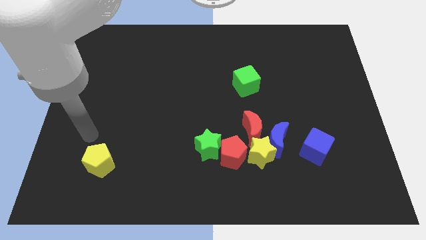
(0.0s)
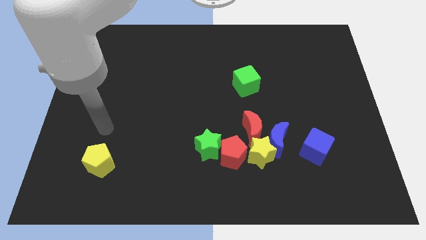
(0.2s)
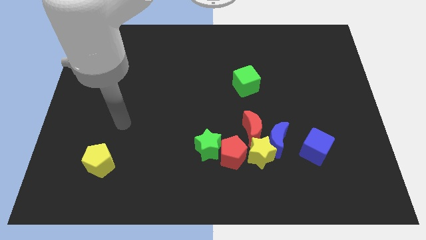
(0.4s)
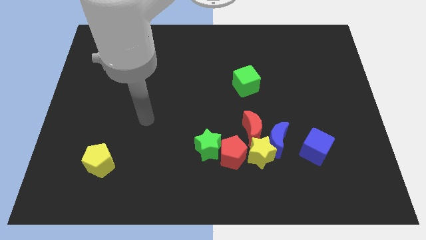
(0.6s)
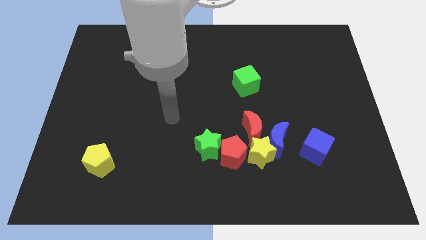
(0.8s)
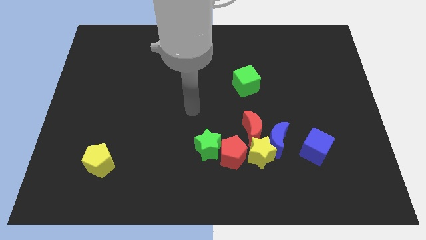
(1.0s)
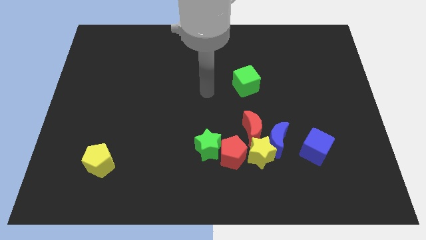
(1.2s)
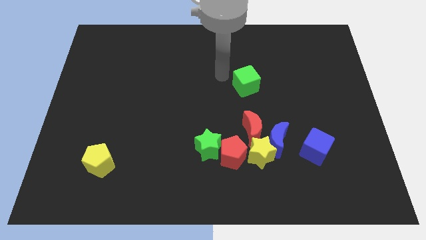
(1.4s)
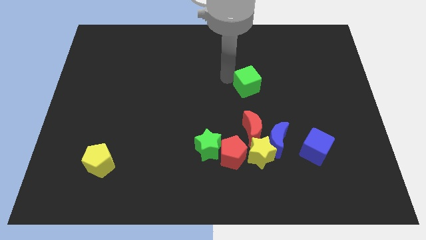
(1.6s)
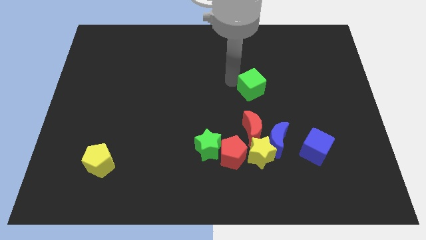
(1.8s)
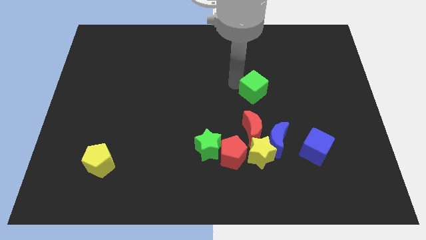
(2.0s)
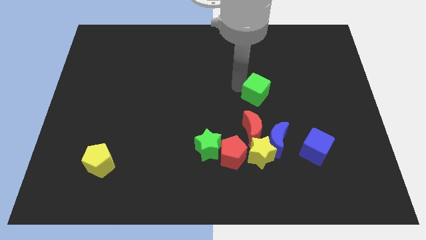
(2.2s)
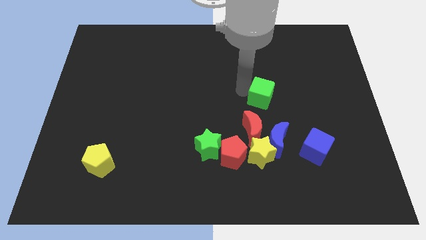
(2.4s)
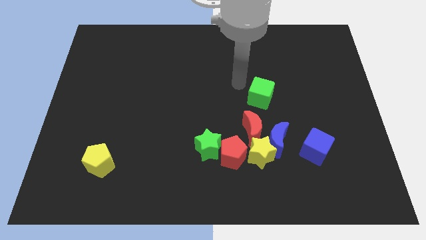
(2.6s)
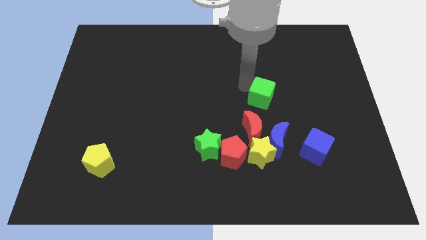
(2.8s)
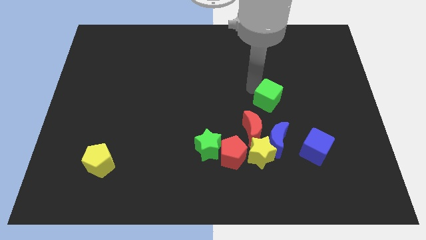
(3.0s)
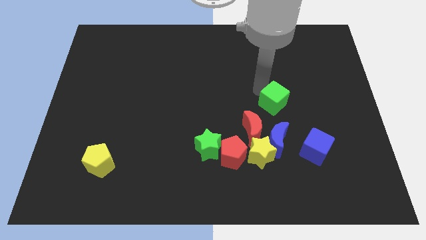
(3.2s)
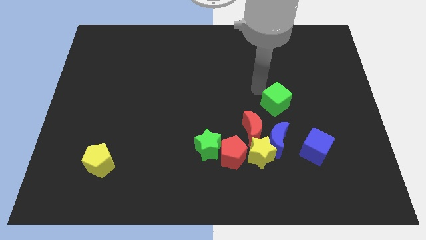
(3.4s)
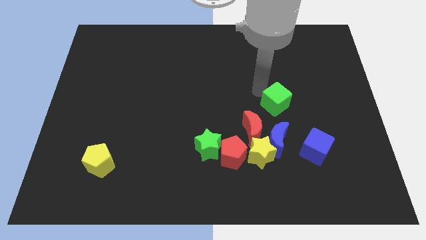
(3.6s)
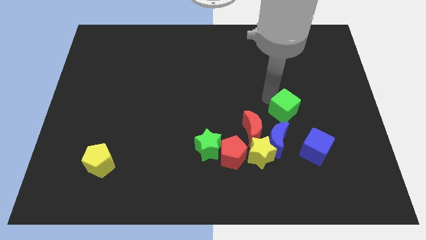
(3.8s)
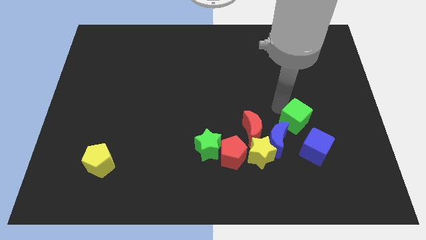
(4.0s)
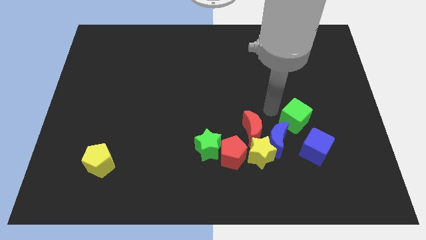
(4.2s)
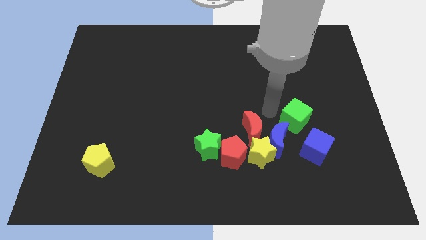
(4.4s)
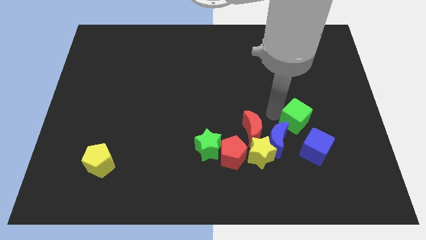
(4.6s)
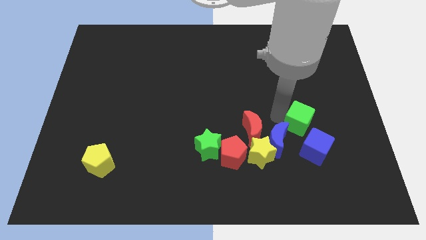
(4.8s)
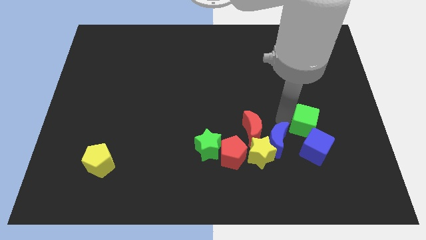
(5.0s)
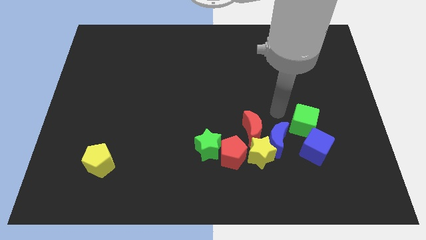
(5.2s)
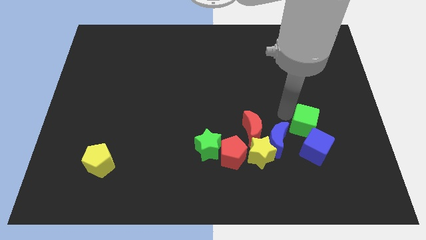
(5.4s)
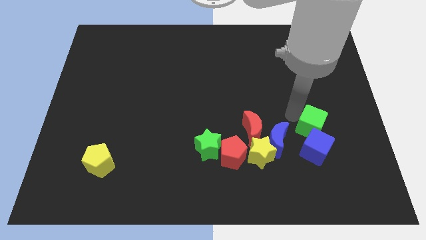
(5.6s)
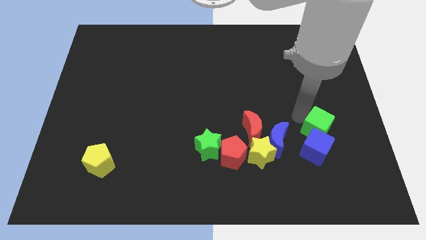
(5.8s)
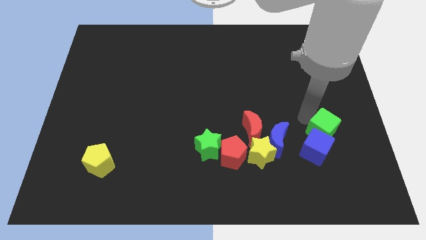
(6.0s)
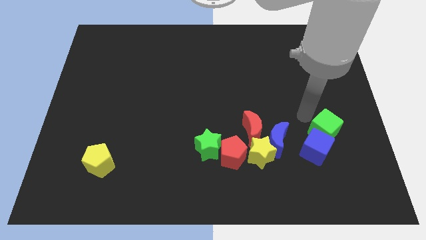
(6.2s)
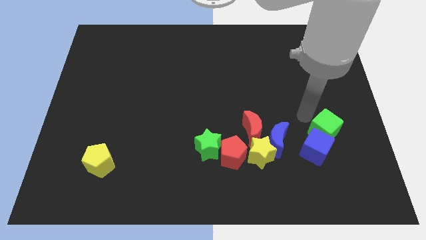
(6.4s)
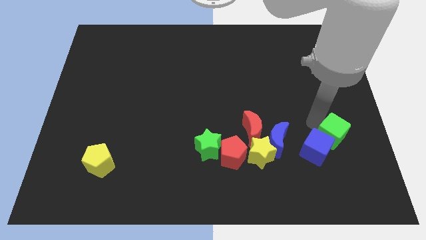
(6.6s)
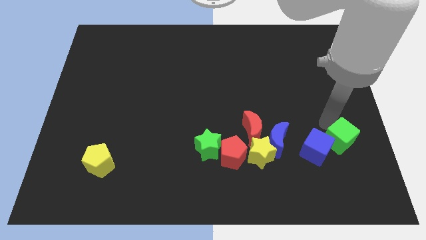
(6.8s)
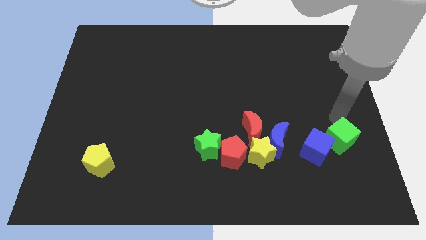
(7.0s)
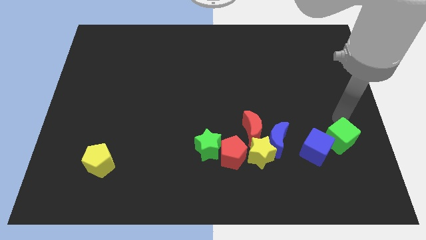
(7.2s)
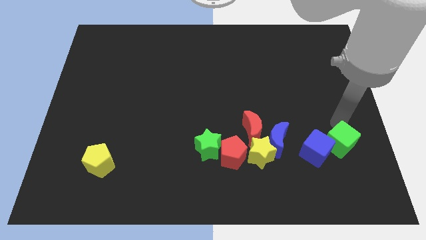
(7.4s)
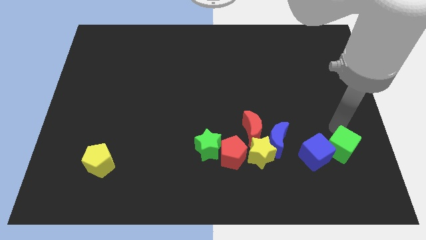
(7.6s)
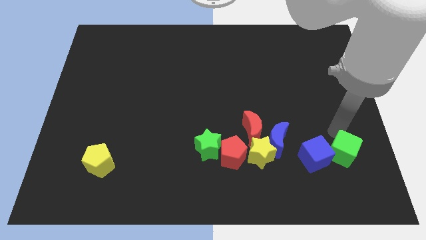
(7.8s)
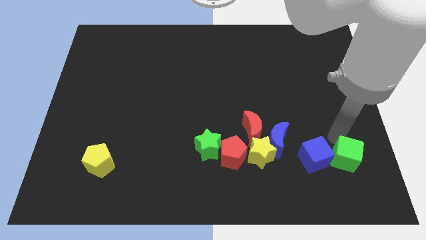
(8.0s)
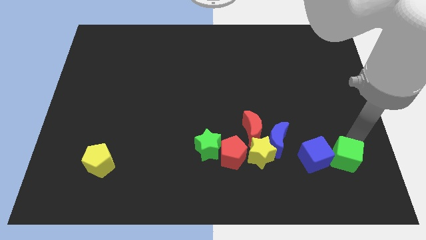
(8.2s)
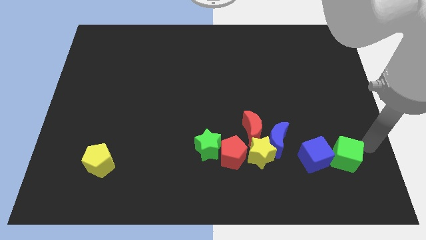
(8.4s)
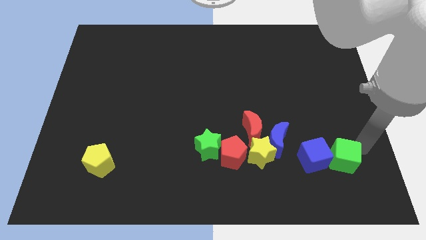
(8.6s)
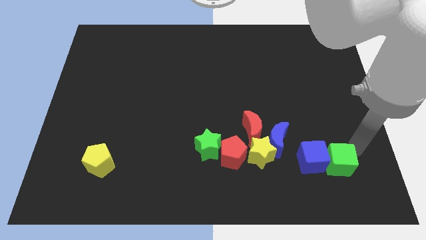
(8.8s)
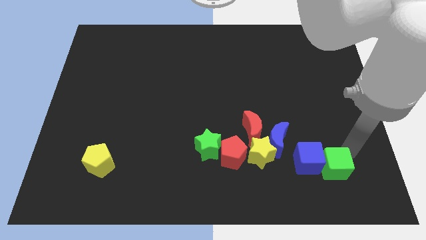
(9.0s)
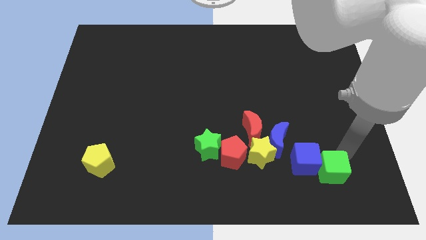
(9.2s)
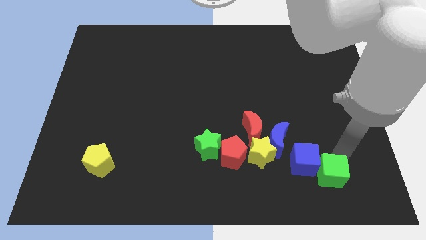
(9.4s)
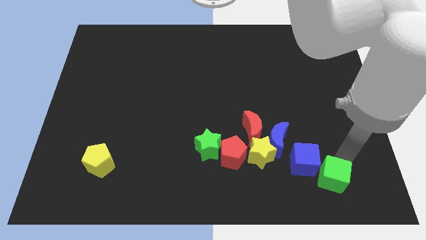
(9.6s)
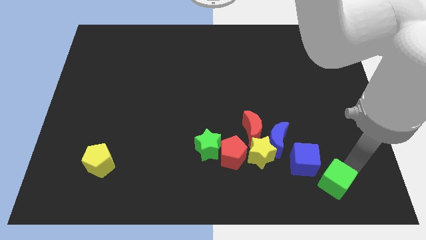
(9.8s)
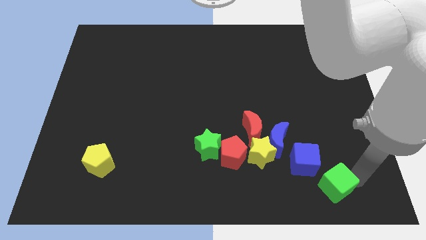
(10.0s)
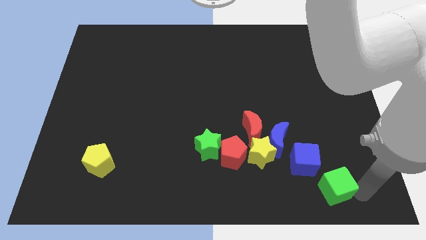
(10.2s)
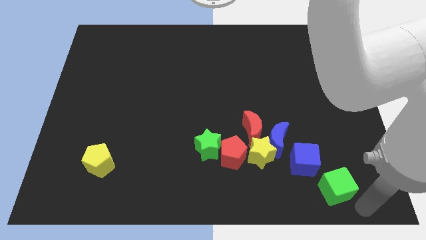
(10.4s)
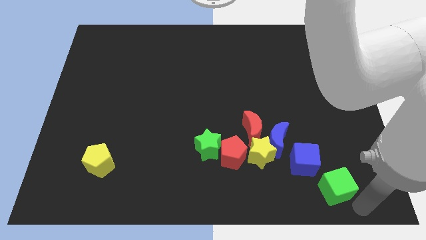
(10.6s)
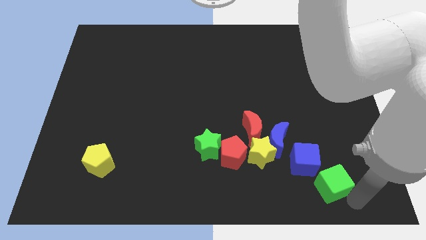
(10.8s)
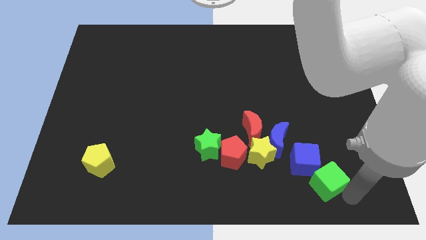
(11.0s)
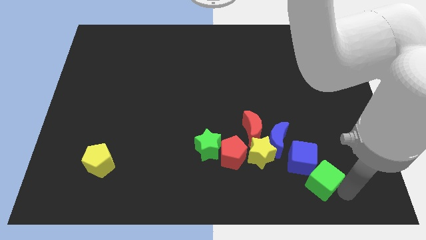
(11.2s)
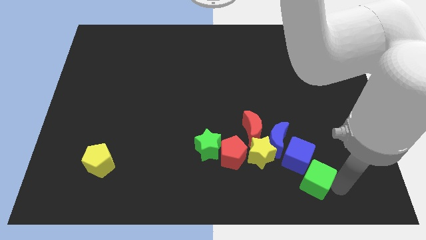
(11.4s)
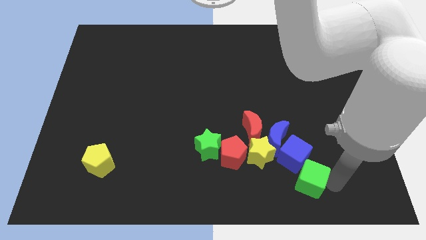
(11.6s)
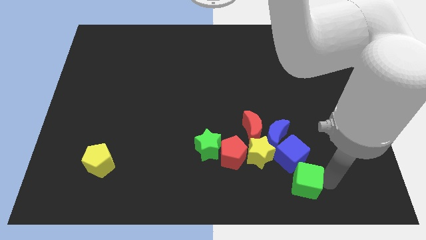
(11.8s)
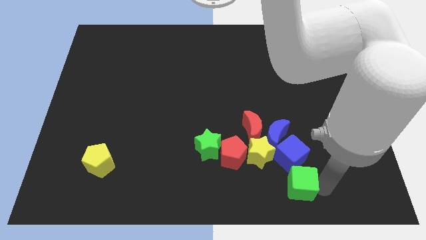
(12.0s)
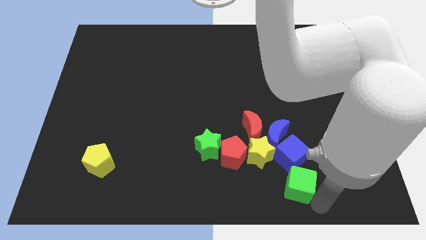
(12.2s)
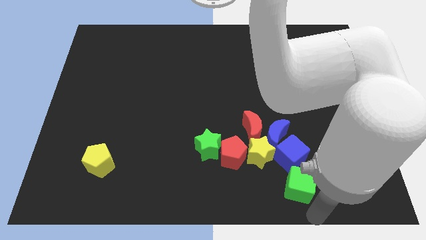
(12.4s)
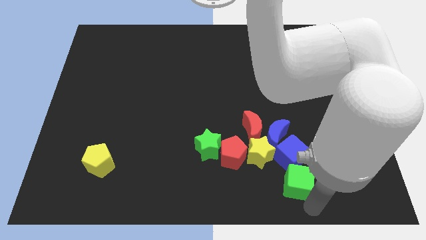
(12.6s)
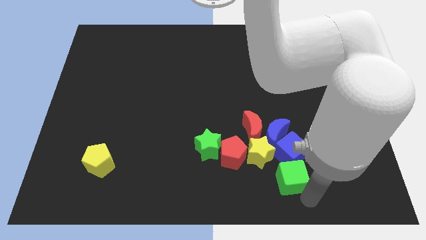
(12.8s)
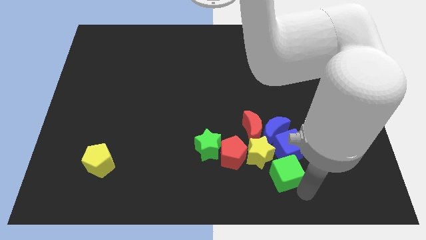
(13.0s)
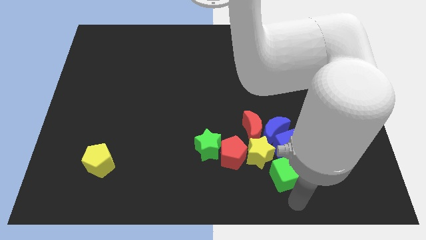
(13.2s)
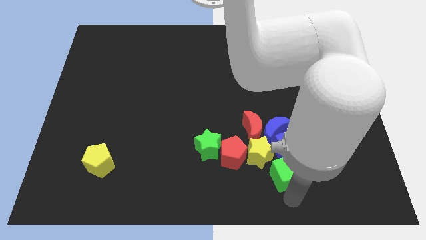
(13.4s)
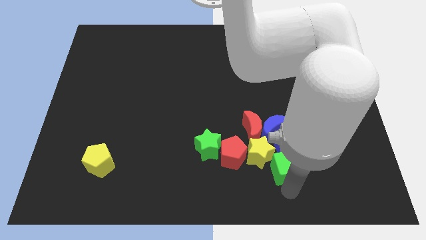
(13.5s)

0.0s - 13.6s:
put the green cube to the bottom right side of the red moon

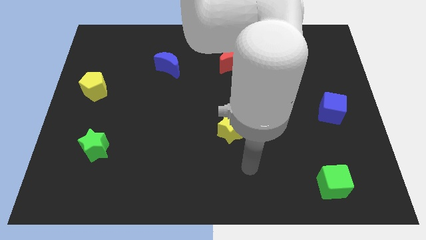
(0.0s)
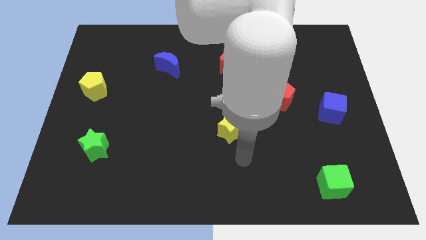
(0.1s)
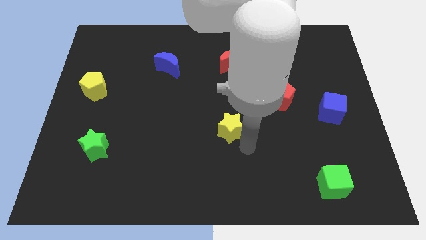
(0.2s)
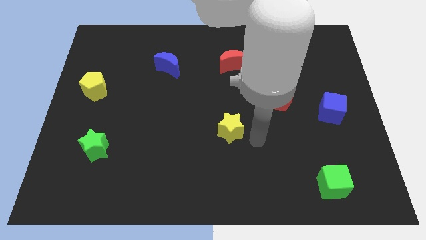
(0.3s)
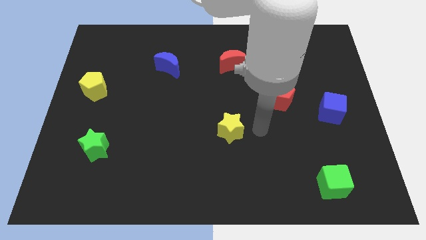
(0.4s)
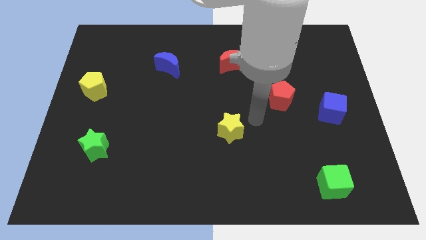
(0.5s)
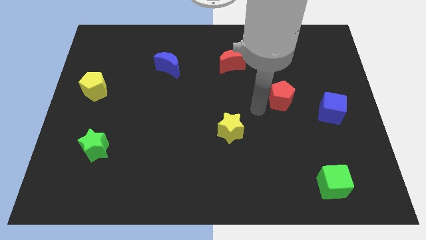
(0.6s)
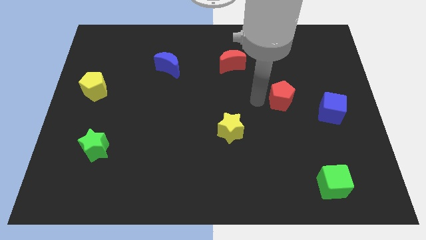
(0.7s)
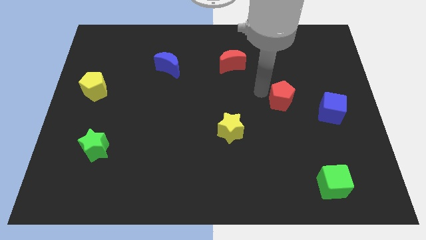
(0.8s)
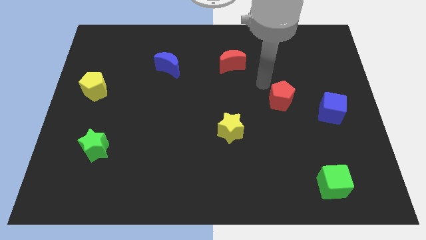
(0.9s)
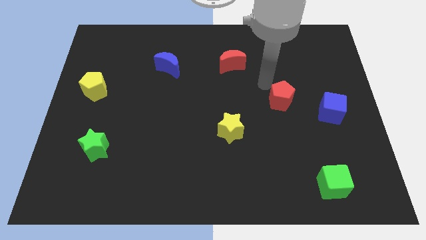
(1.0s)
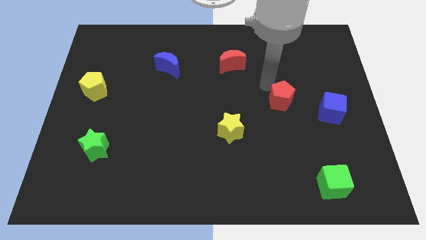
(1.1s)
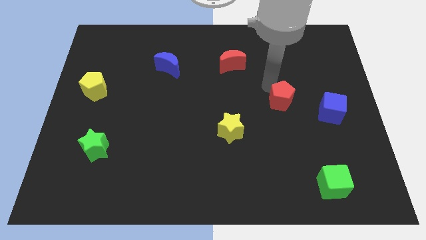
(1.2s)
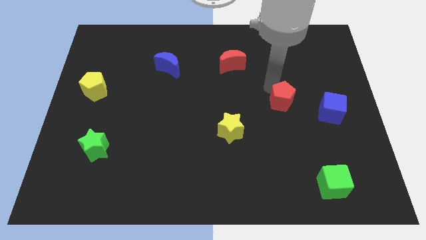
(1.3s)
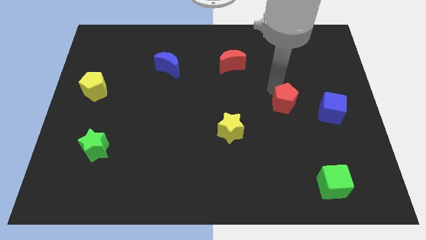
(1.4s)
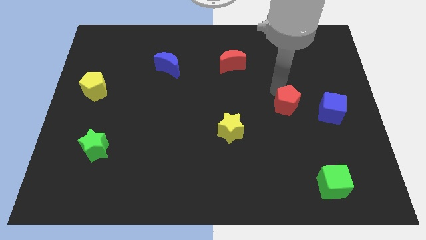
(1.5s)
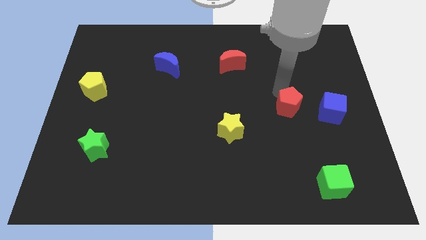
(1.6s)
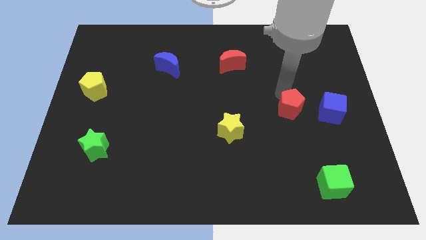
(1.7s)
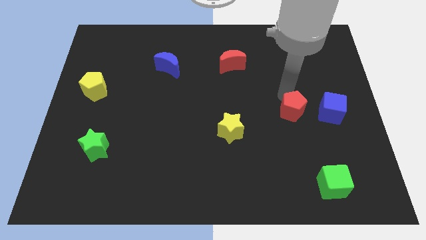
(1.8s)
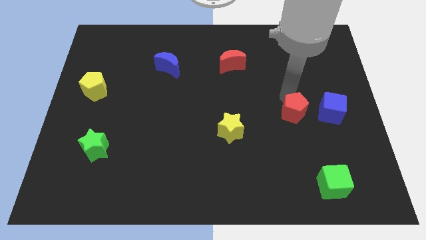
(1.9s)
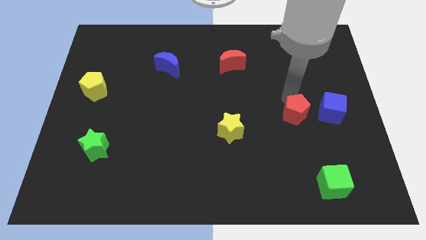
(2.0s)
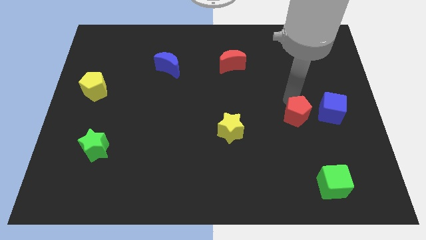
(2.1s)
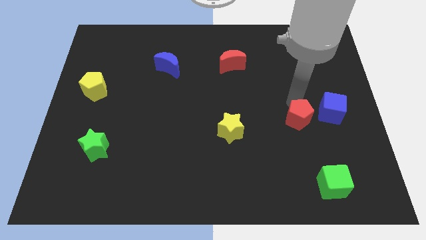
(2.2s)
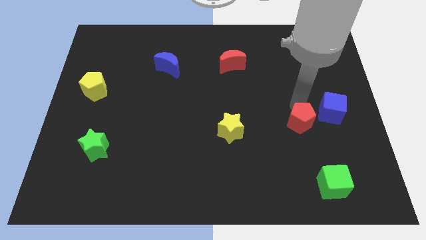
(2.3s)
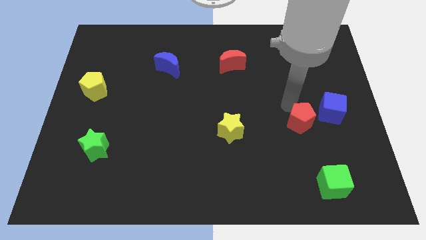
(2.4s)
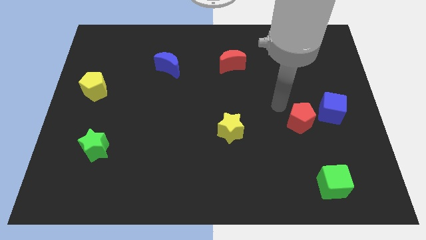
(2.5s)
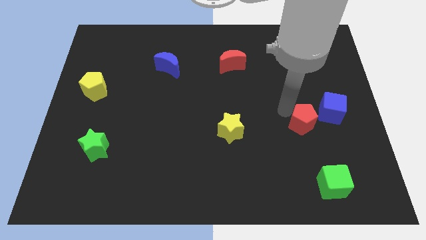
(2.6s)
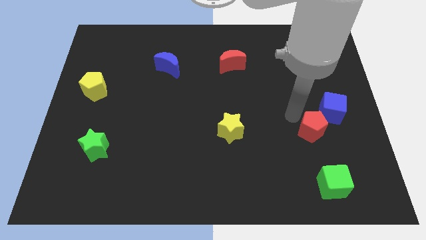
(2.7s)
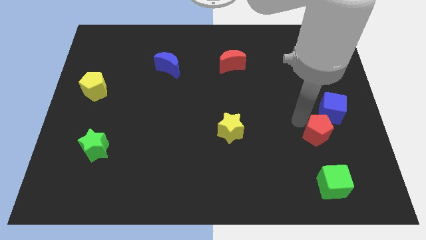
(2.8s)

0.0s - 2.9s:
move the red pentagon to the bottom side of the blue cube
